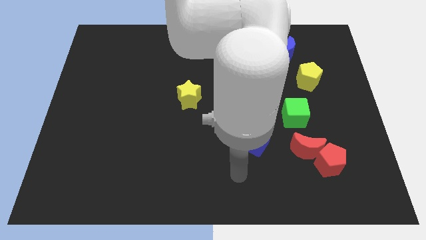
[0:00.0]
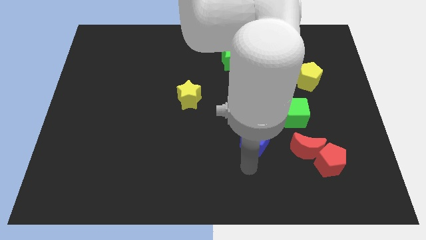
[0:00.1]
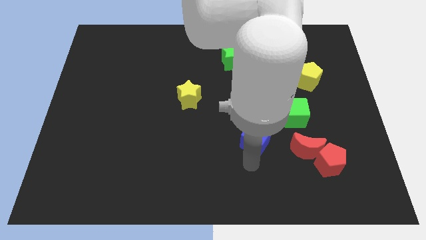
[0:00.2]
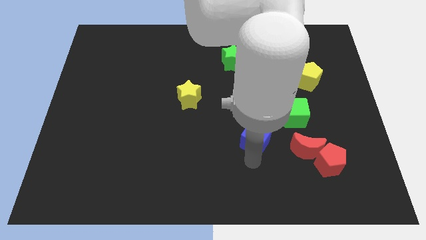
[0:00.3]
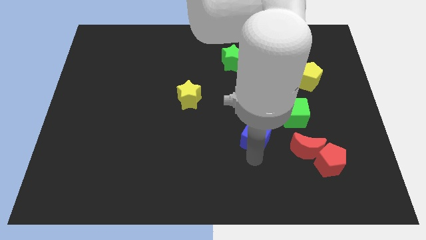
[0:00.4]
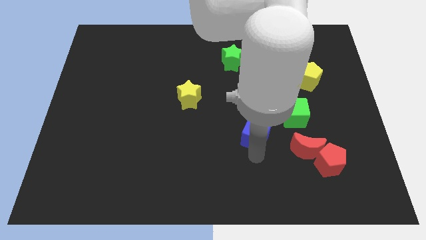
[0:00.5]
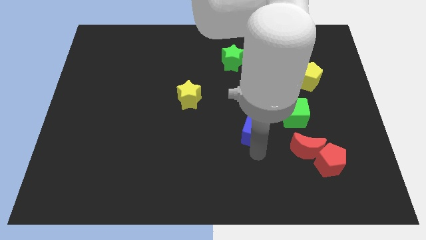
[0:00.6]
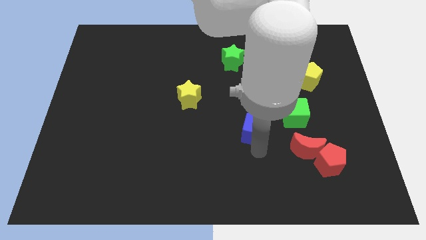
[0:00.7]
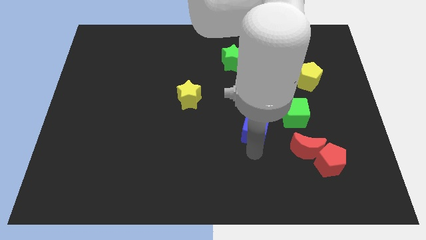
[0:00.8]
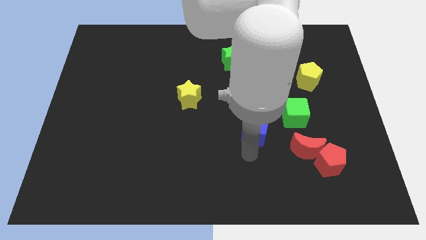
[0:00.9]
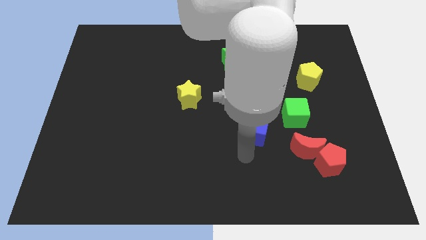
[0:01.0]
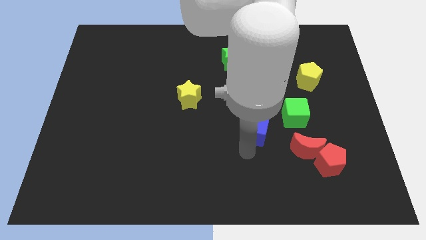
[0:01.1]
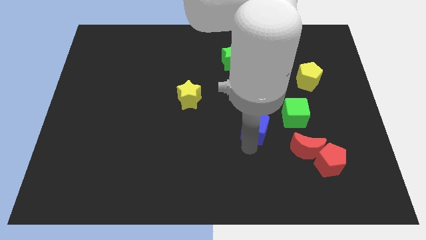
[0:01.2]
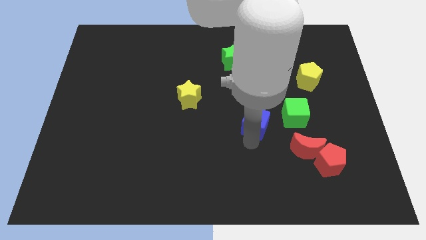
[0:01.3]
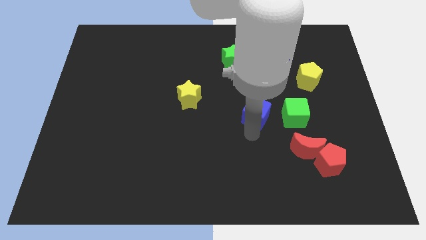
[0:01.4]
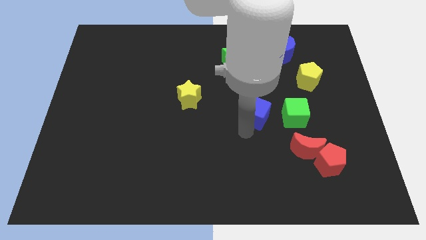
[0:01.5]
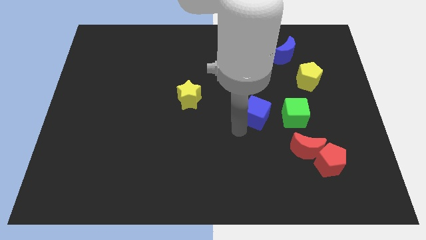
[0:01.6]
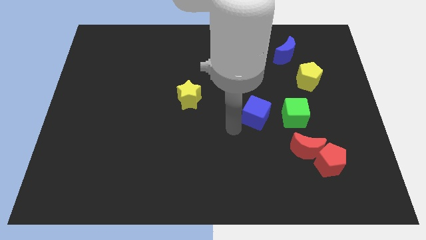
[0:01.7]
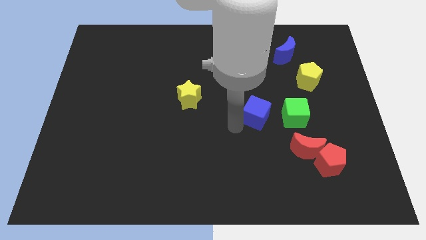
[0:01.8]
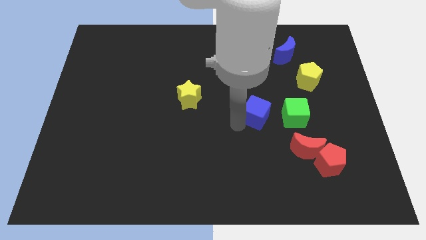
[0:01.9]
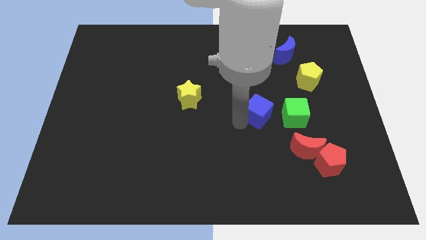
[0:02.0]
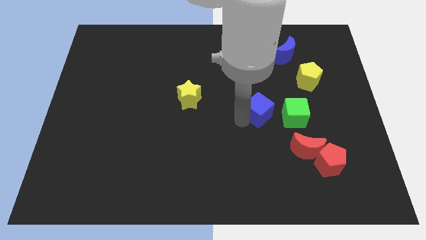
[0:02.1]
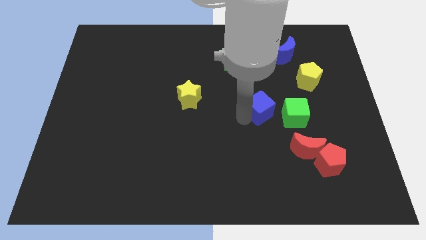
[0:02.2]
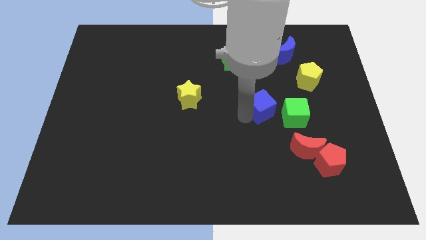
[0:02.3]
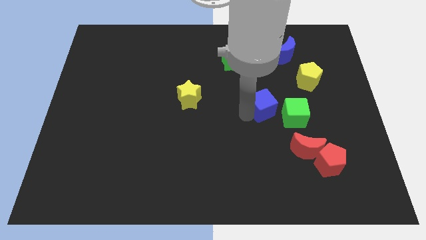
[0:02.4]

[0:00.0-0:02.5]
push the blue cube diagonally upwards and right a bit

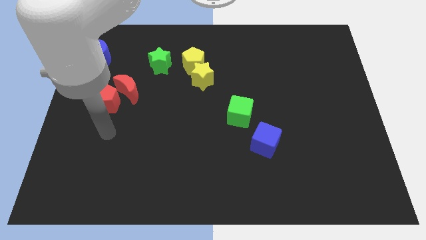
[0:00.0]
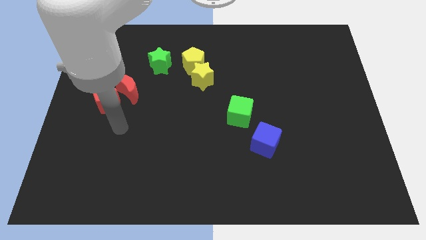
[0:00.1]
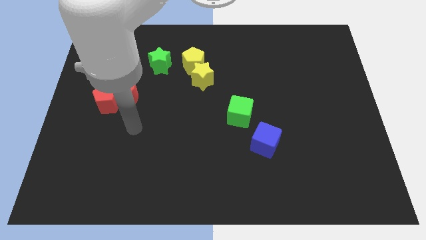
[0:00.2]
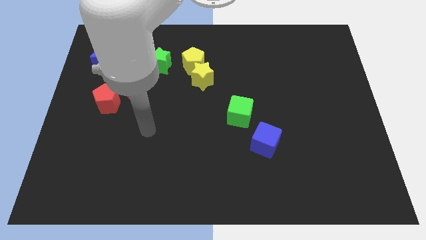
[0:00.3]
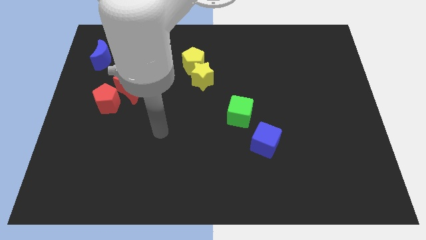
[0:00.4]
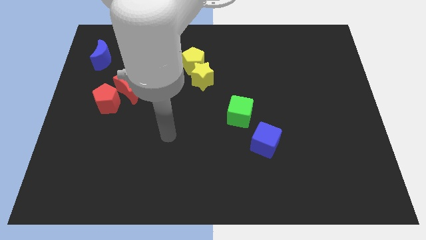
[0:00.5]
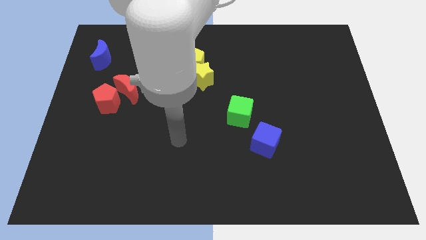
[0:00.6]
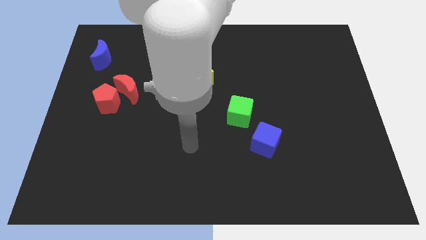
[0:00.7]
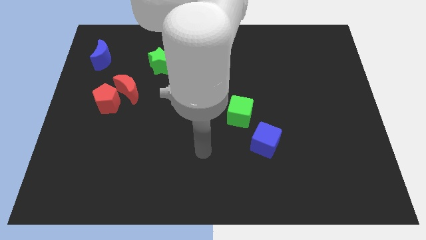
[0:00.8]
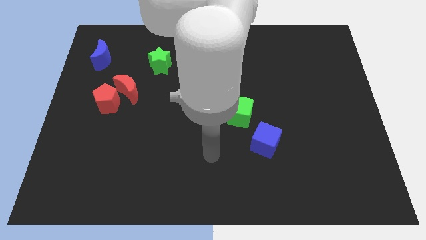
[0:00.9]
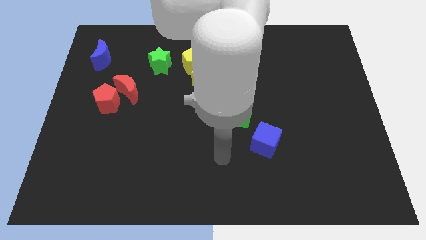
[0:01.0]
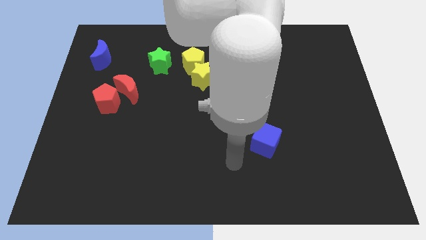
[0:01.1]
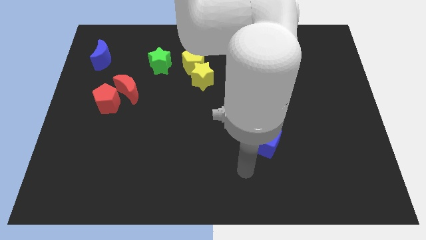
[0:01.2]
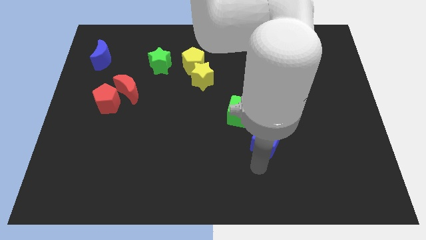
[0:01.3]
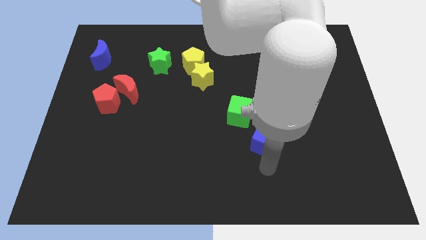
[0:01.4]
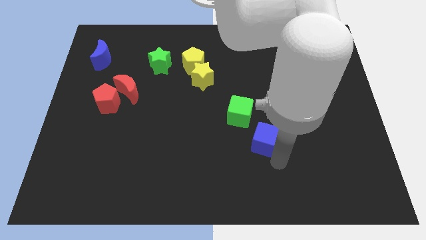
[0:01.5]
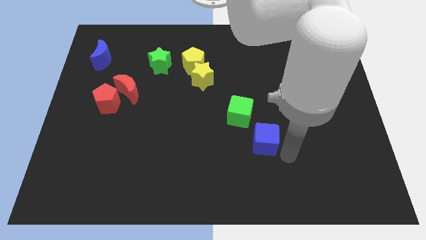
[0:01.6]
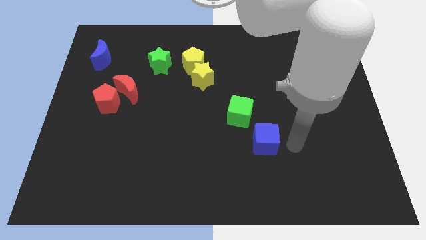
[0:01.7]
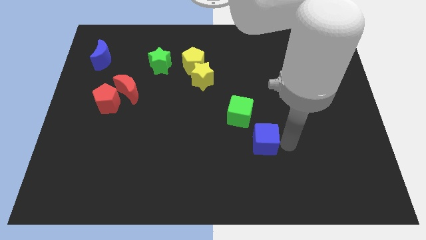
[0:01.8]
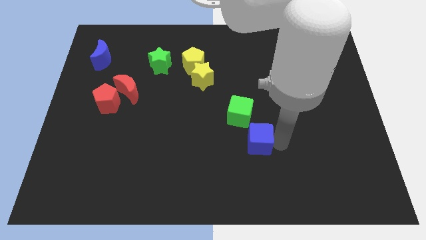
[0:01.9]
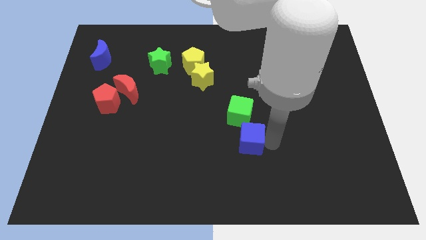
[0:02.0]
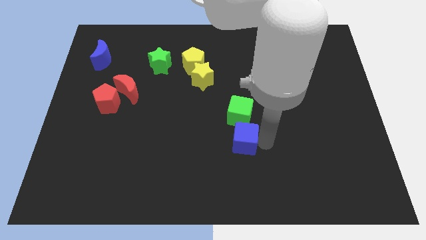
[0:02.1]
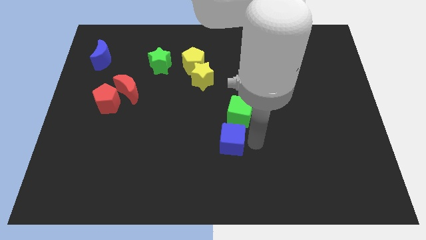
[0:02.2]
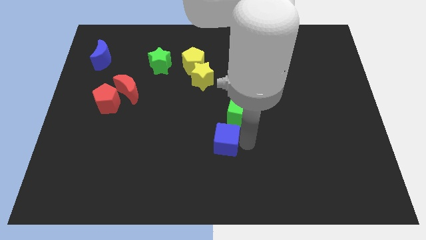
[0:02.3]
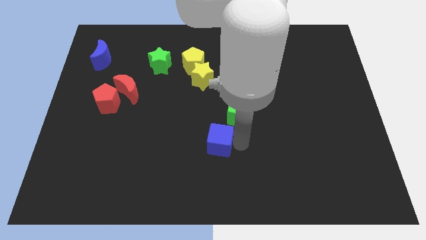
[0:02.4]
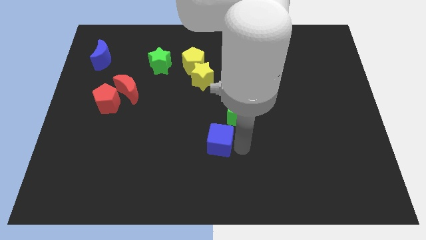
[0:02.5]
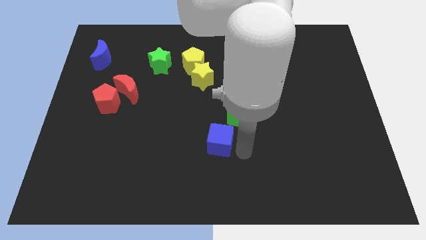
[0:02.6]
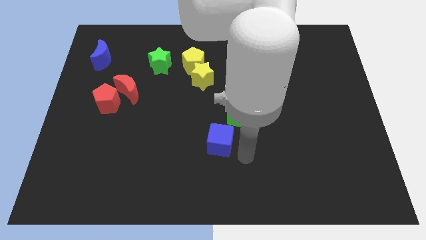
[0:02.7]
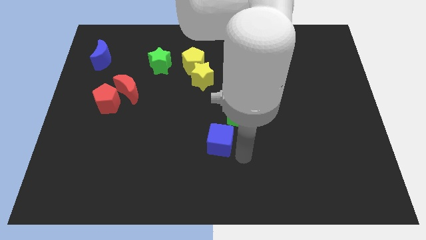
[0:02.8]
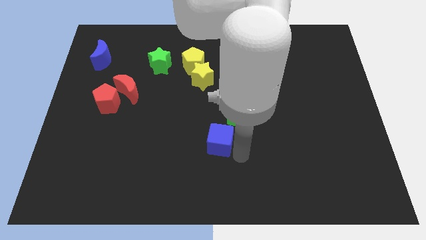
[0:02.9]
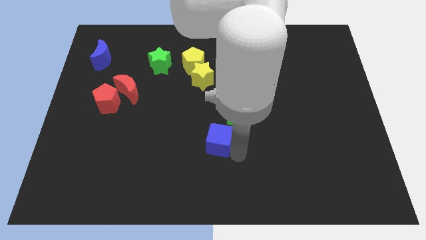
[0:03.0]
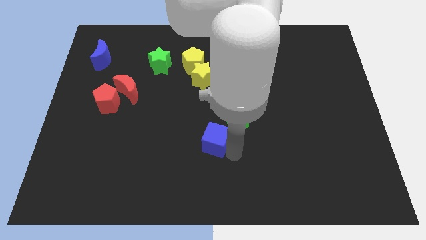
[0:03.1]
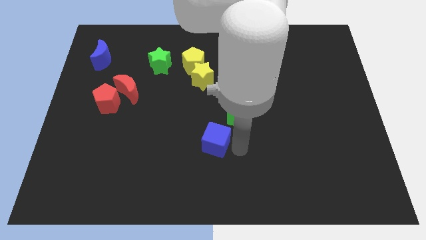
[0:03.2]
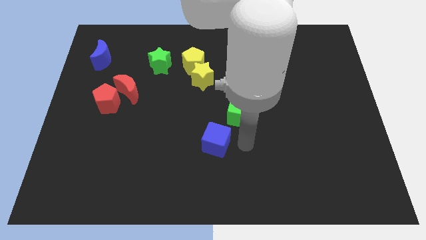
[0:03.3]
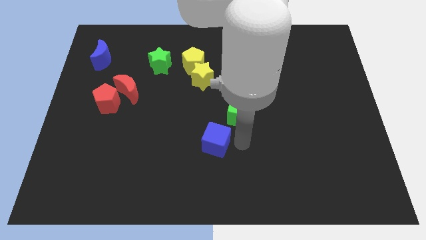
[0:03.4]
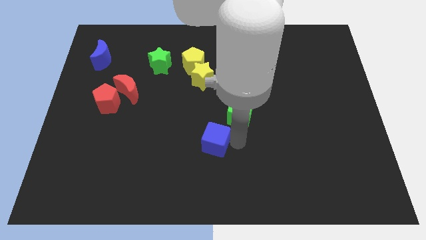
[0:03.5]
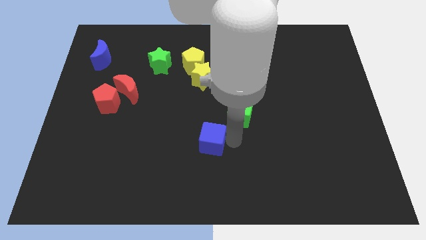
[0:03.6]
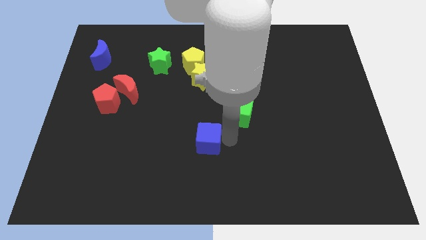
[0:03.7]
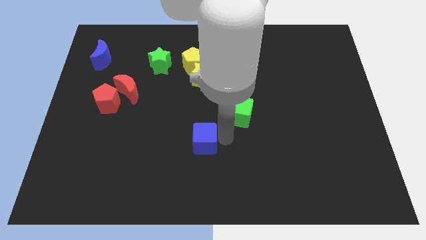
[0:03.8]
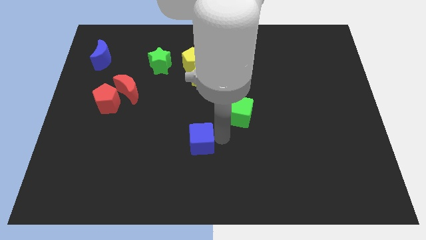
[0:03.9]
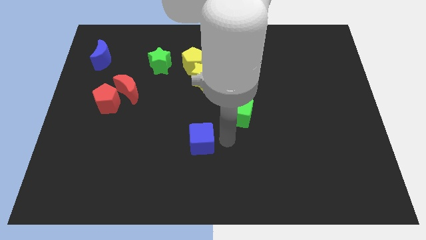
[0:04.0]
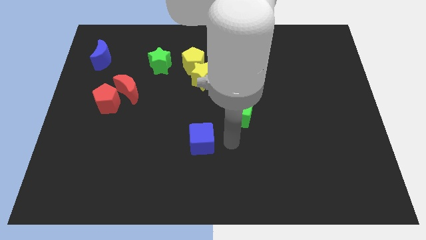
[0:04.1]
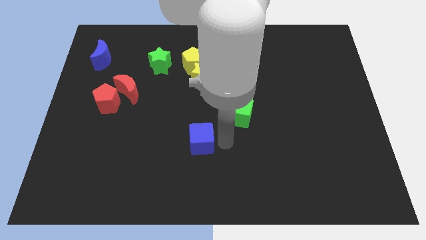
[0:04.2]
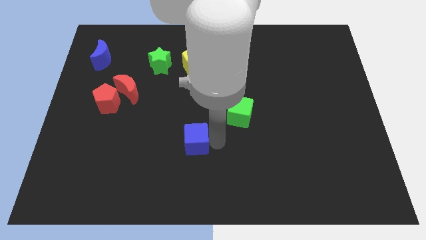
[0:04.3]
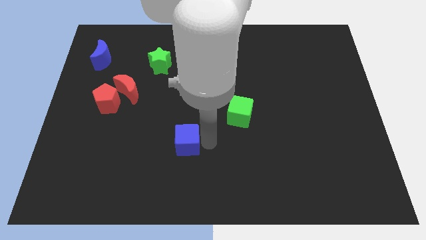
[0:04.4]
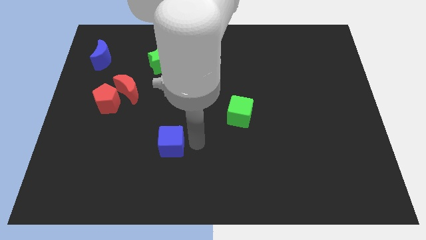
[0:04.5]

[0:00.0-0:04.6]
move the blue cube to the left

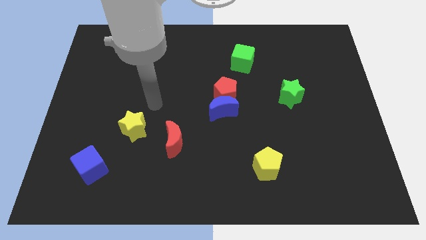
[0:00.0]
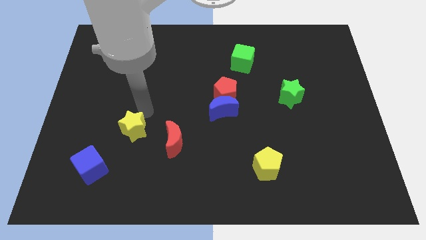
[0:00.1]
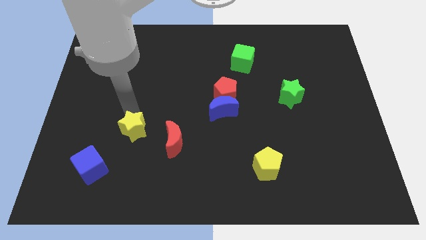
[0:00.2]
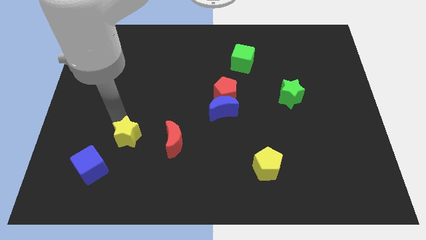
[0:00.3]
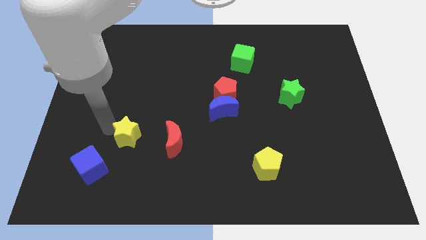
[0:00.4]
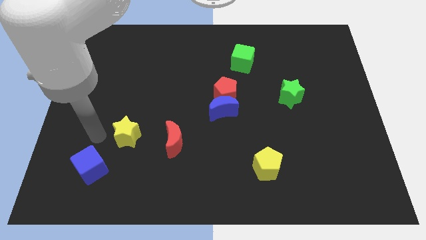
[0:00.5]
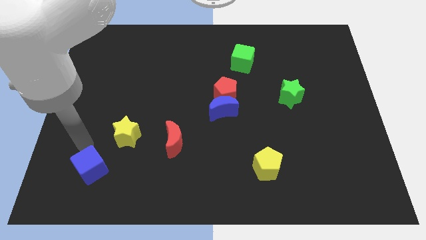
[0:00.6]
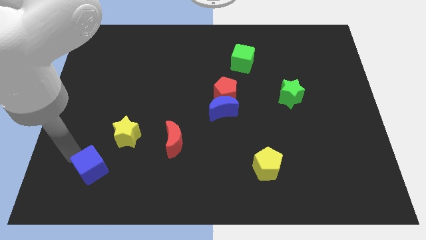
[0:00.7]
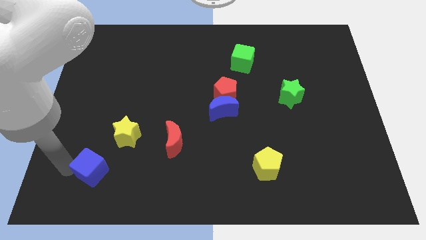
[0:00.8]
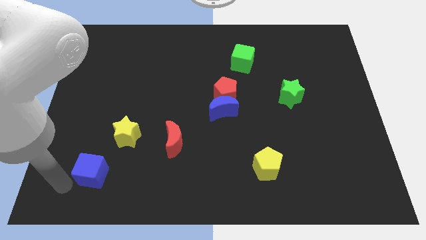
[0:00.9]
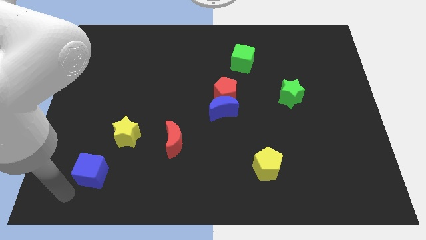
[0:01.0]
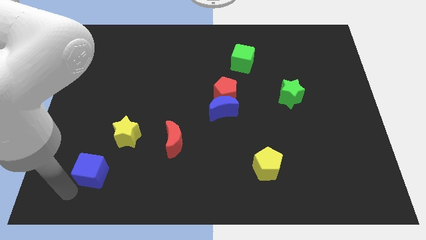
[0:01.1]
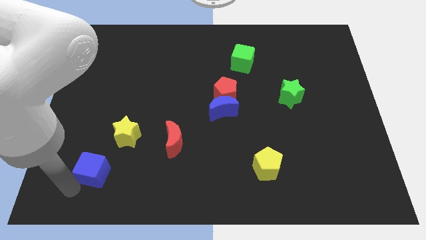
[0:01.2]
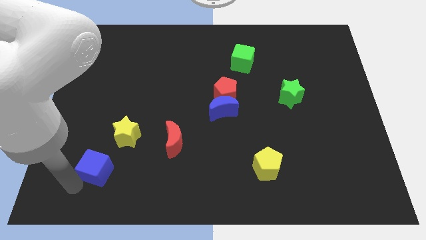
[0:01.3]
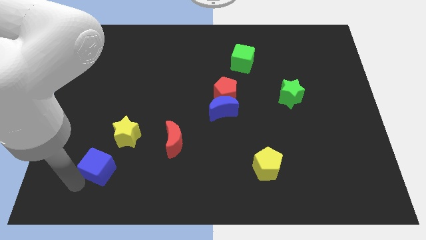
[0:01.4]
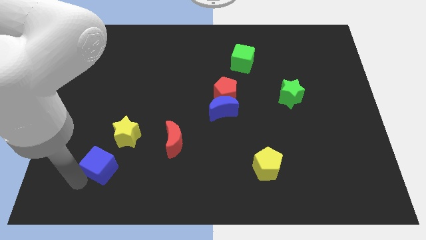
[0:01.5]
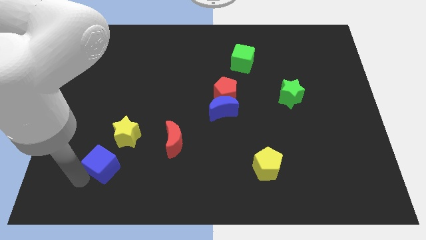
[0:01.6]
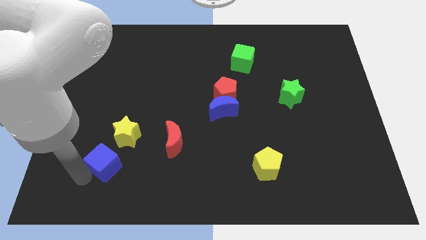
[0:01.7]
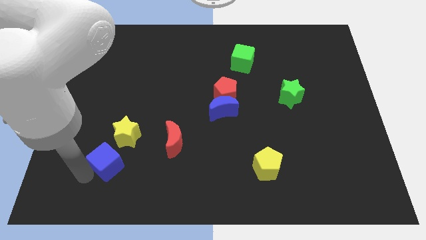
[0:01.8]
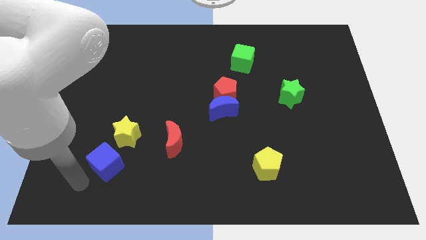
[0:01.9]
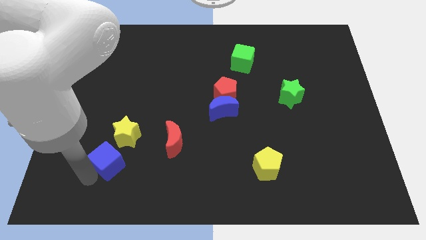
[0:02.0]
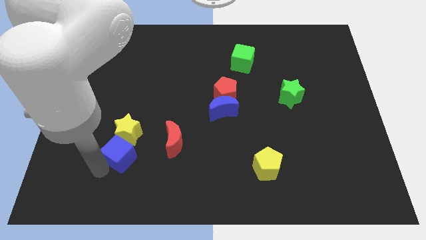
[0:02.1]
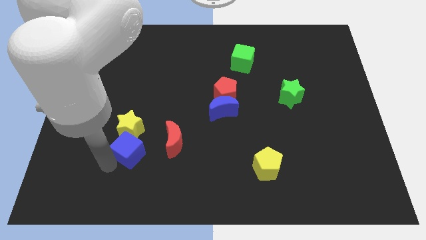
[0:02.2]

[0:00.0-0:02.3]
move the blue cube up and to the right a bit
